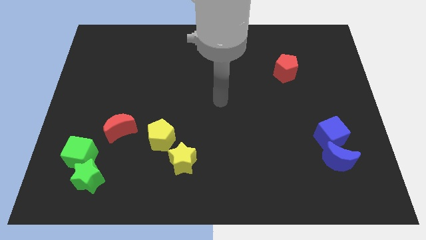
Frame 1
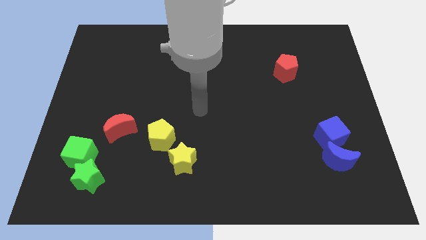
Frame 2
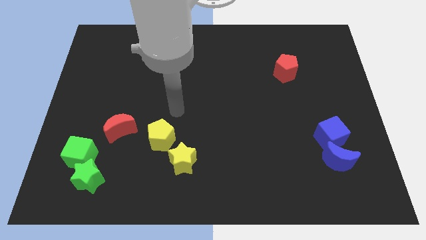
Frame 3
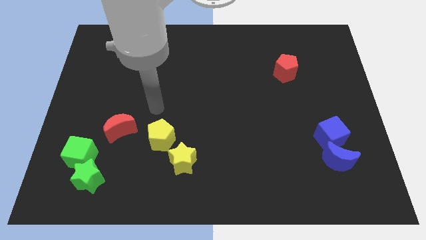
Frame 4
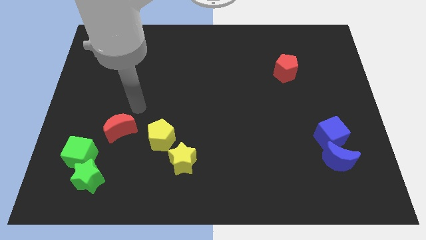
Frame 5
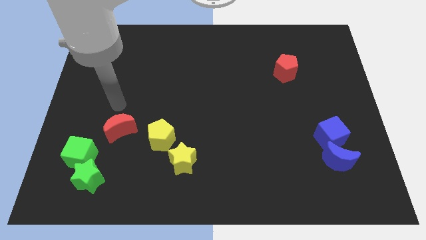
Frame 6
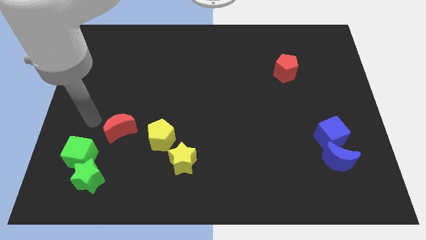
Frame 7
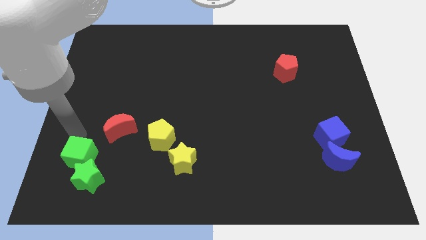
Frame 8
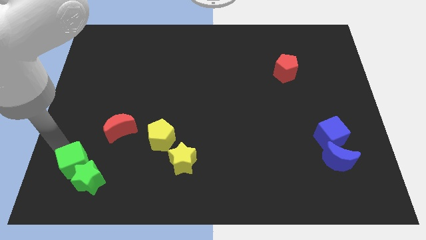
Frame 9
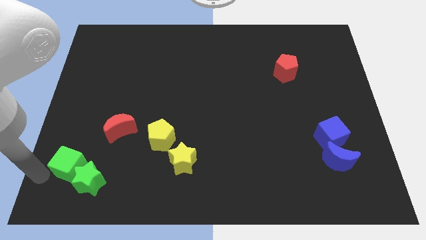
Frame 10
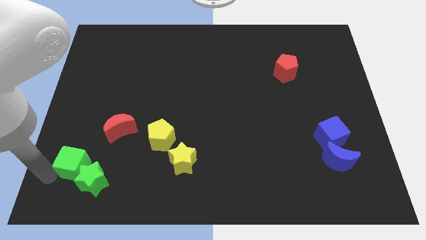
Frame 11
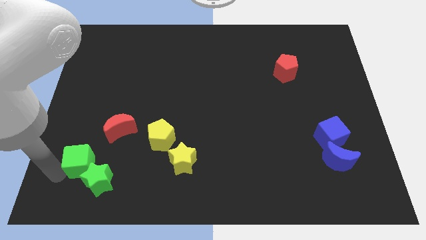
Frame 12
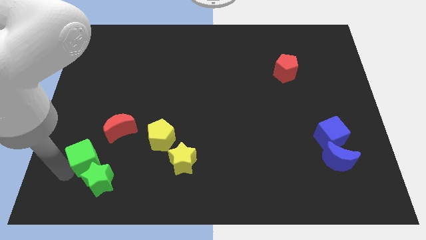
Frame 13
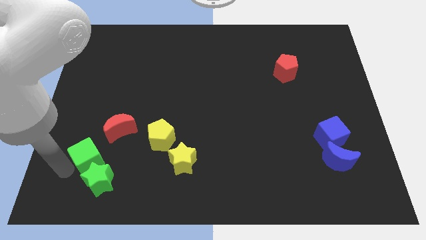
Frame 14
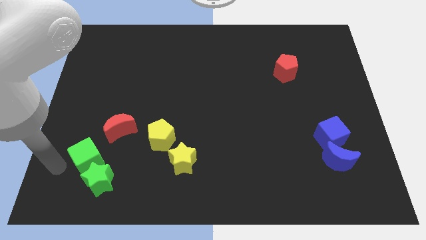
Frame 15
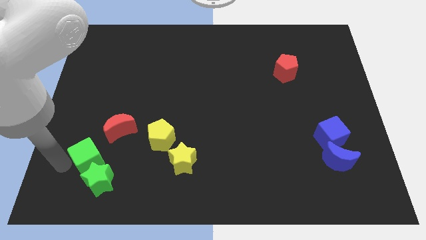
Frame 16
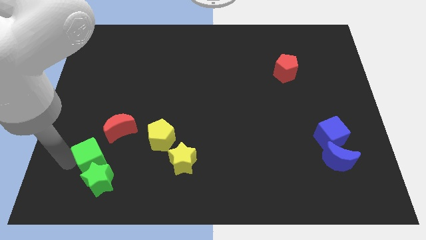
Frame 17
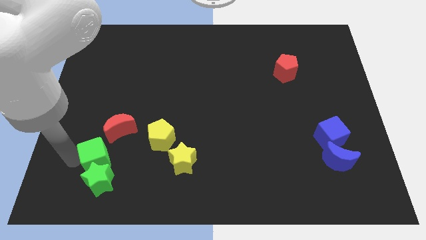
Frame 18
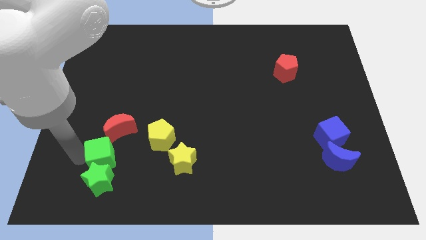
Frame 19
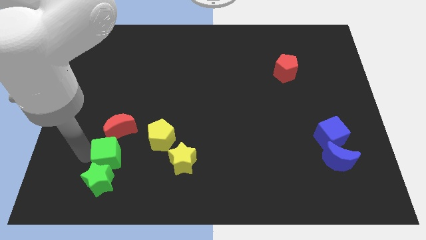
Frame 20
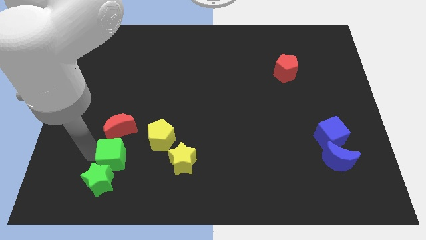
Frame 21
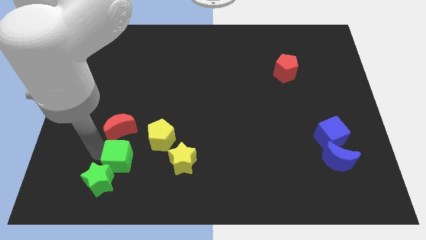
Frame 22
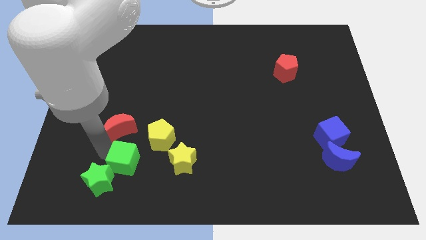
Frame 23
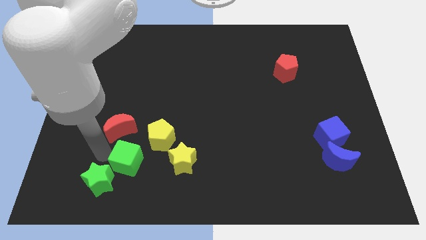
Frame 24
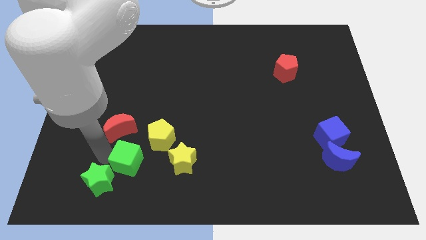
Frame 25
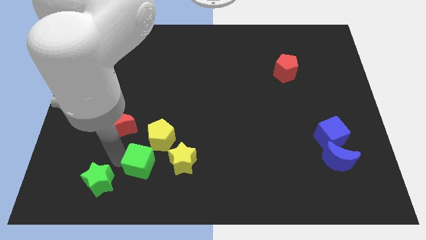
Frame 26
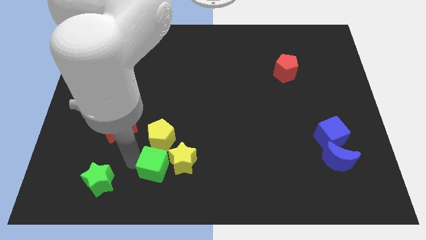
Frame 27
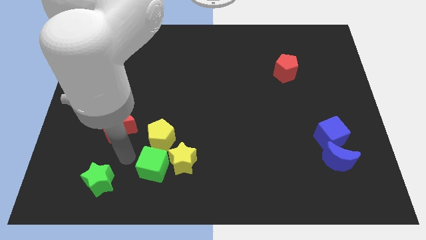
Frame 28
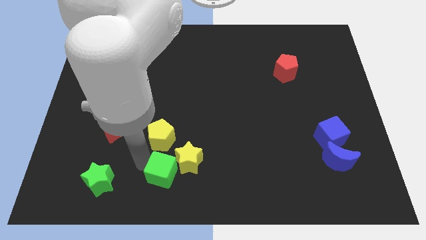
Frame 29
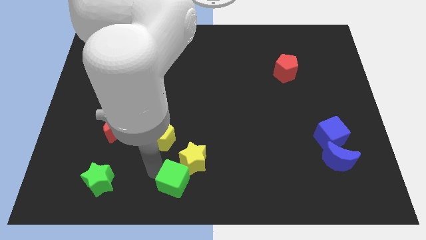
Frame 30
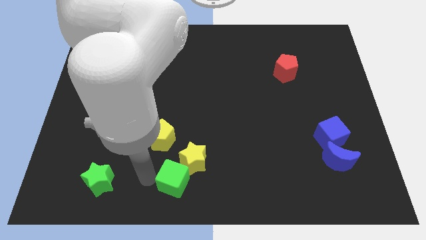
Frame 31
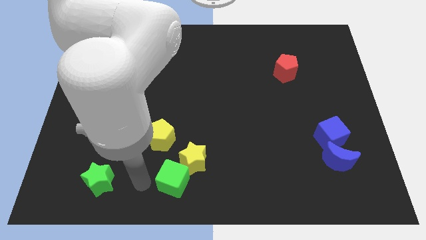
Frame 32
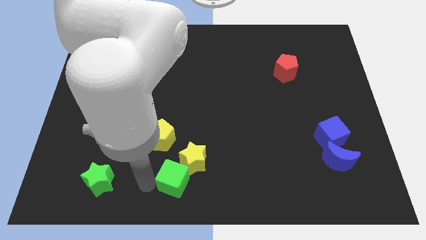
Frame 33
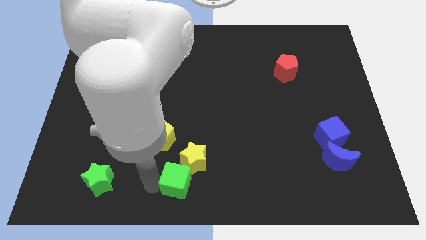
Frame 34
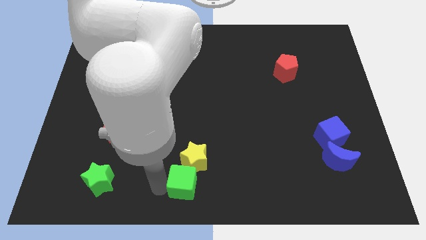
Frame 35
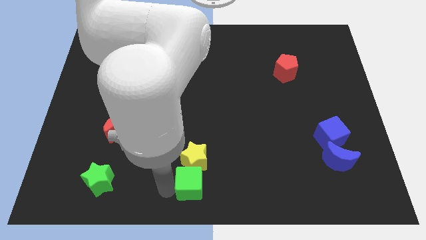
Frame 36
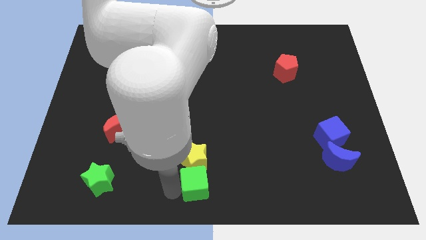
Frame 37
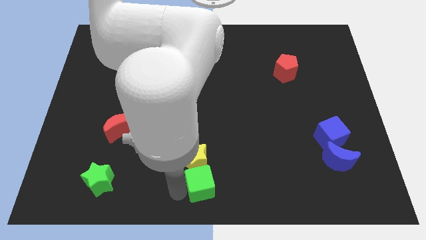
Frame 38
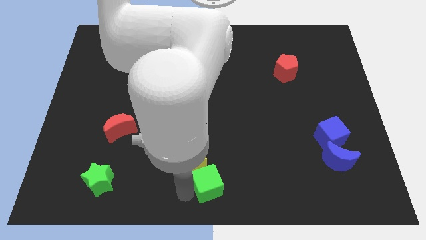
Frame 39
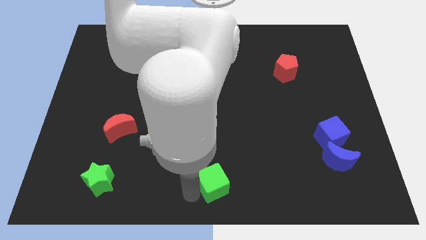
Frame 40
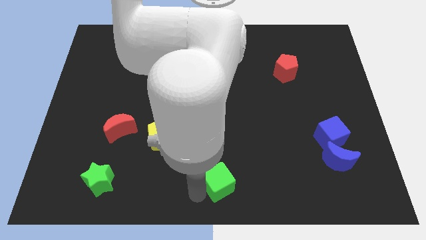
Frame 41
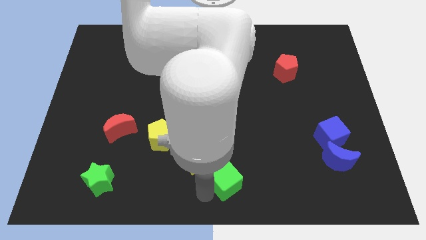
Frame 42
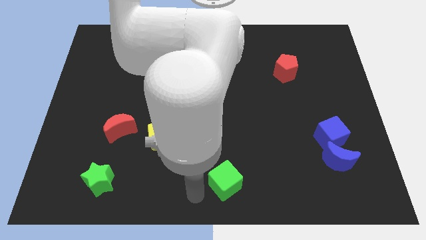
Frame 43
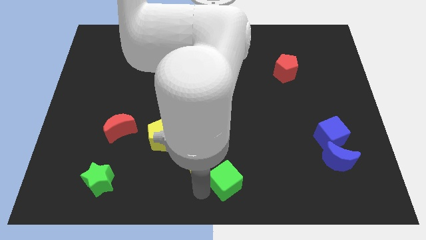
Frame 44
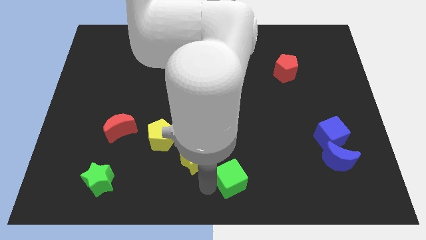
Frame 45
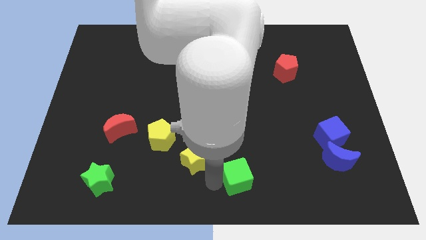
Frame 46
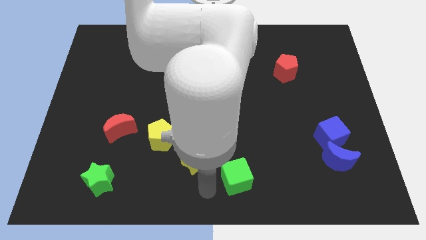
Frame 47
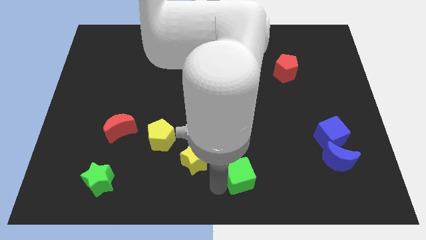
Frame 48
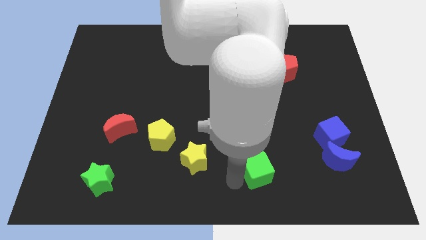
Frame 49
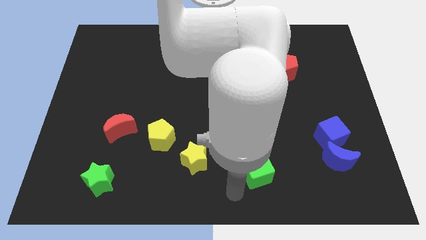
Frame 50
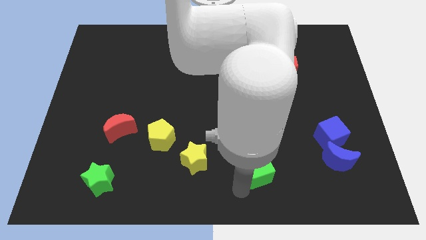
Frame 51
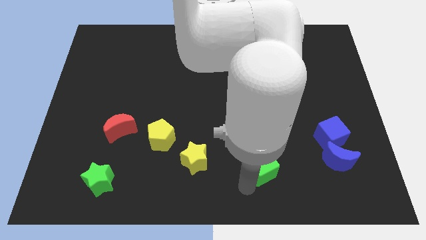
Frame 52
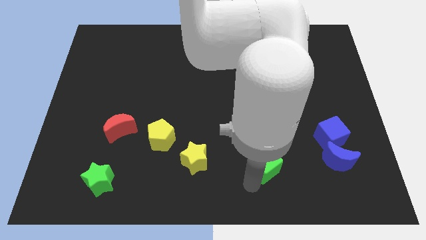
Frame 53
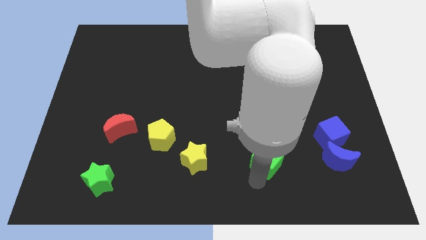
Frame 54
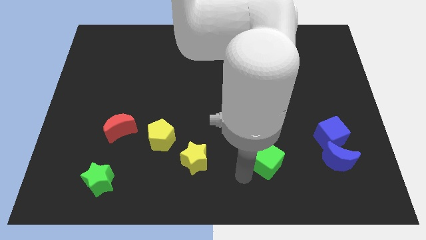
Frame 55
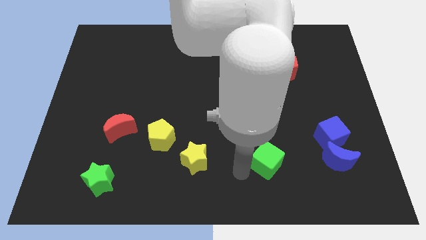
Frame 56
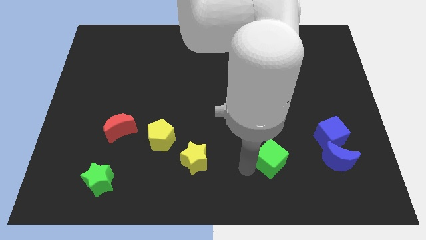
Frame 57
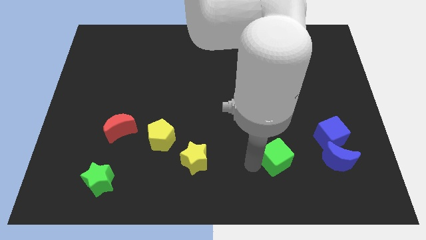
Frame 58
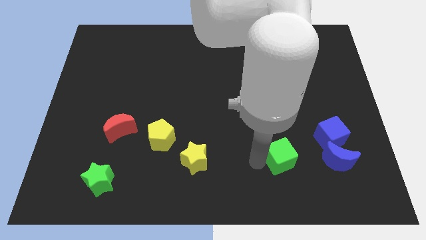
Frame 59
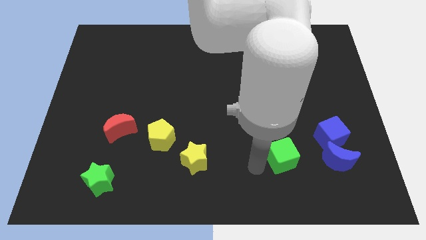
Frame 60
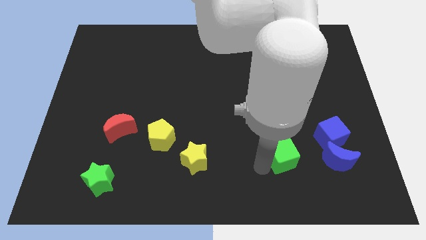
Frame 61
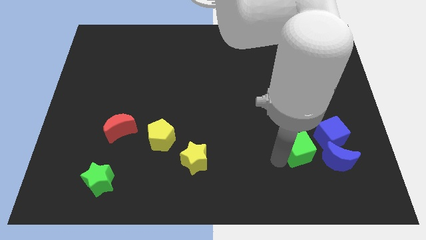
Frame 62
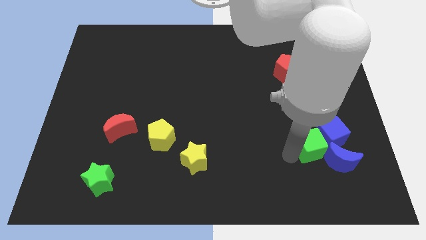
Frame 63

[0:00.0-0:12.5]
move the green cube to the blue cube
